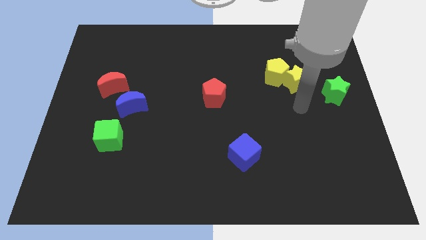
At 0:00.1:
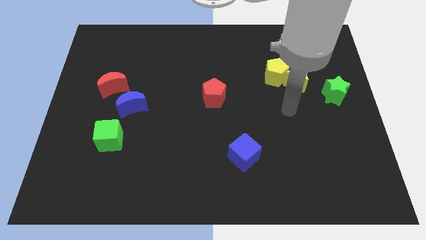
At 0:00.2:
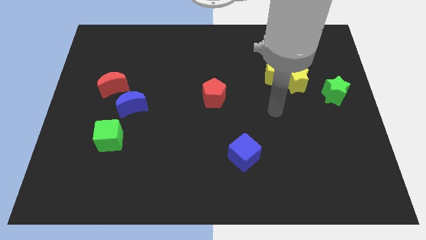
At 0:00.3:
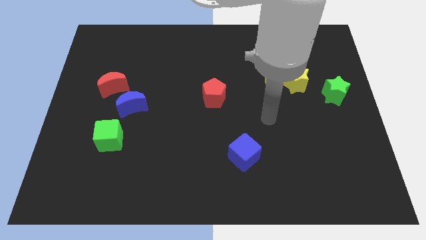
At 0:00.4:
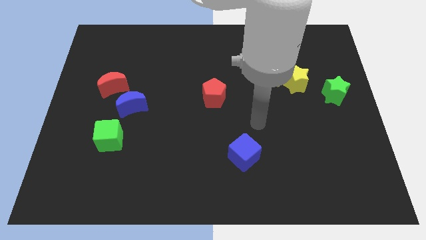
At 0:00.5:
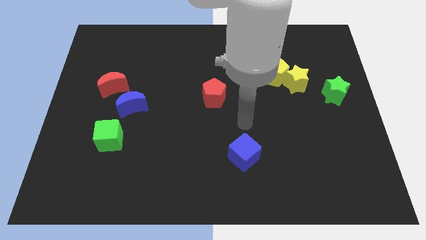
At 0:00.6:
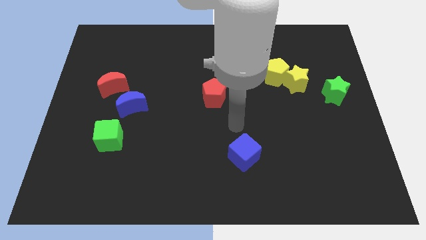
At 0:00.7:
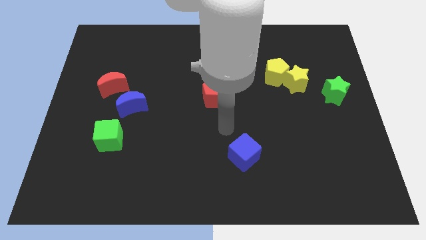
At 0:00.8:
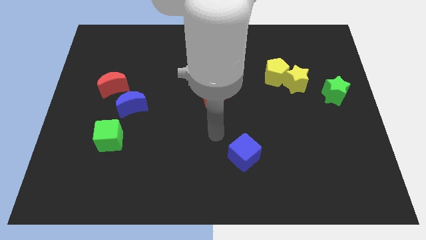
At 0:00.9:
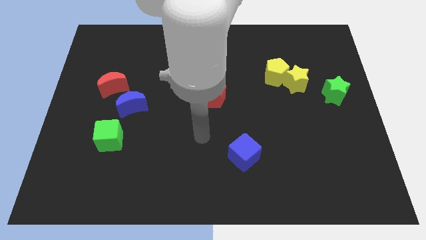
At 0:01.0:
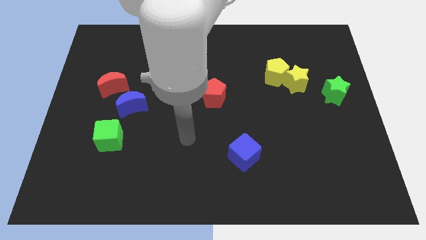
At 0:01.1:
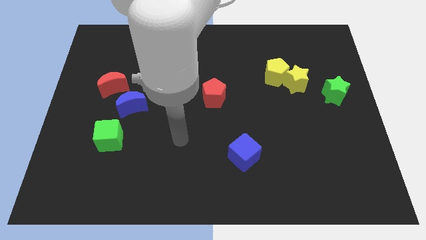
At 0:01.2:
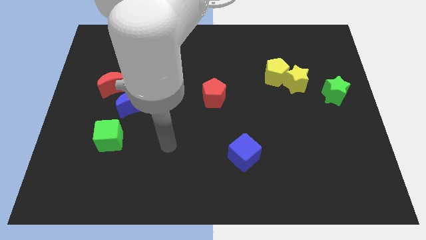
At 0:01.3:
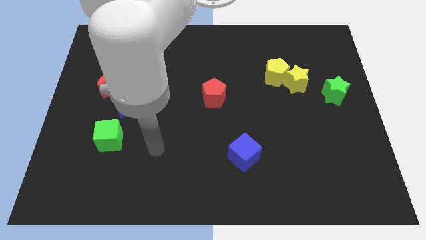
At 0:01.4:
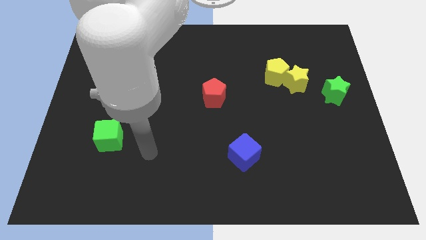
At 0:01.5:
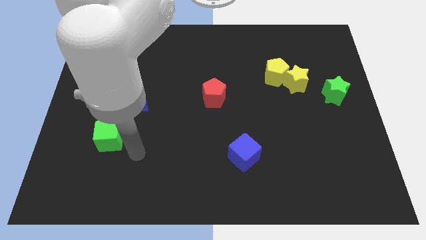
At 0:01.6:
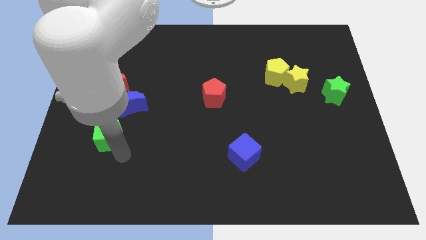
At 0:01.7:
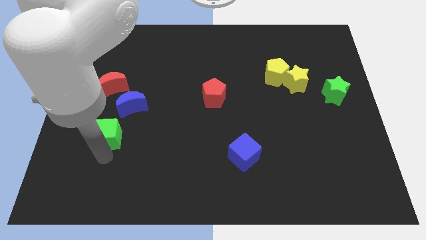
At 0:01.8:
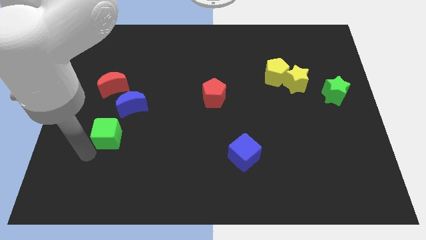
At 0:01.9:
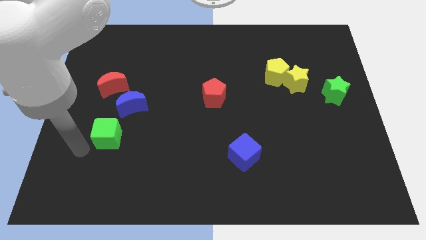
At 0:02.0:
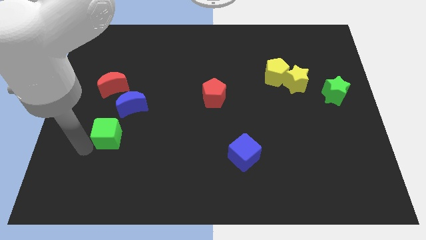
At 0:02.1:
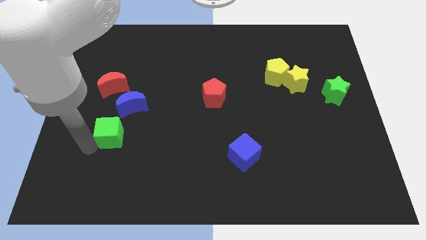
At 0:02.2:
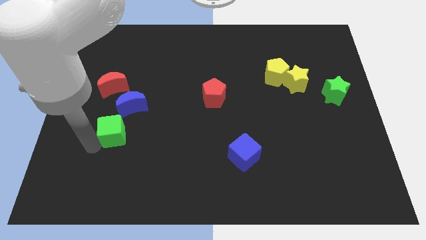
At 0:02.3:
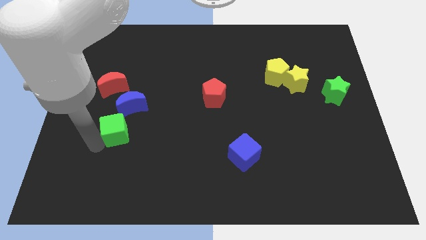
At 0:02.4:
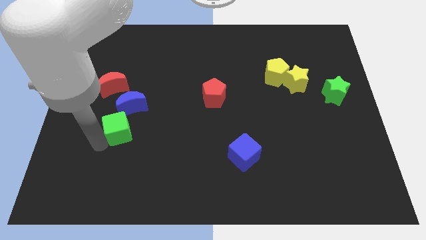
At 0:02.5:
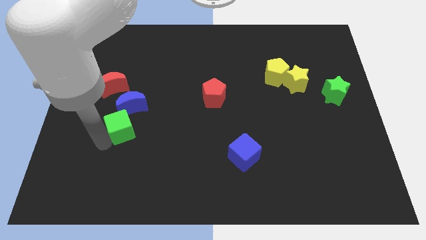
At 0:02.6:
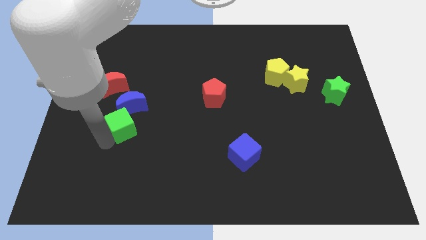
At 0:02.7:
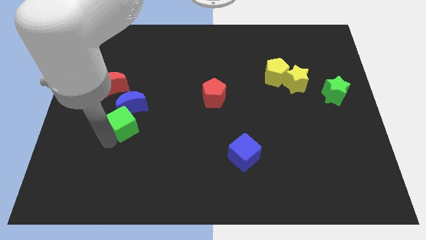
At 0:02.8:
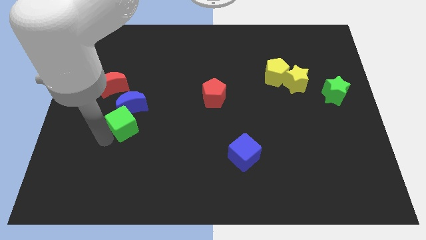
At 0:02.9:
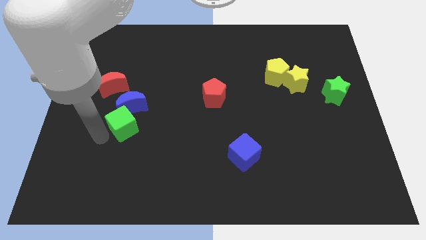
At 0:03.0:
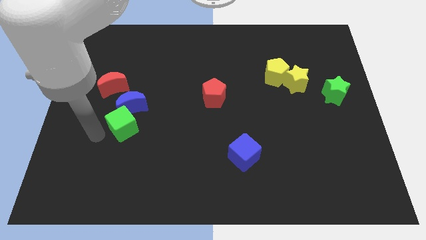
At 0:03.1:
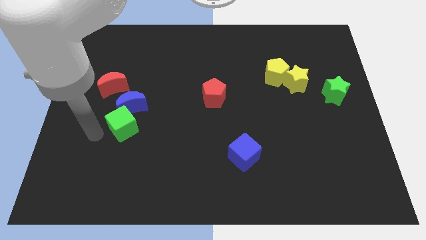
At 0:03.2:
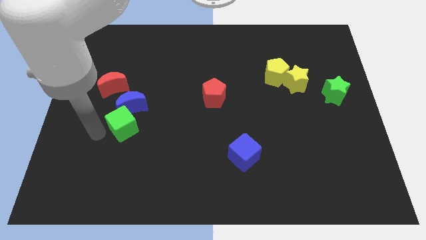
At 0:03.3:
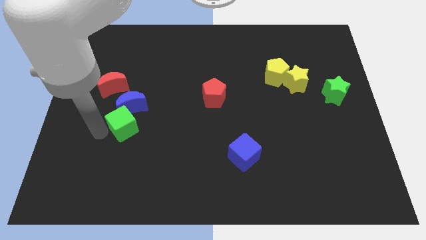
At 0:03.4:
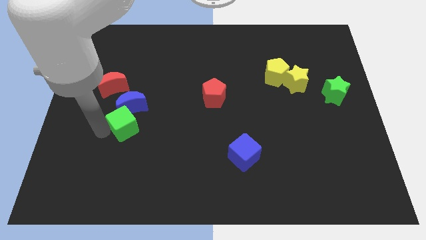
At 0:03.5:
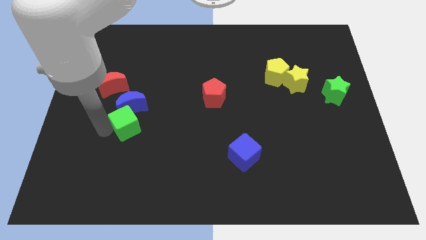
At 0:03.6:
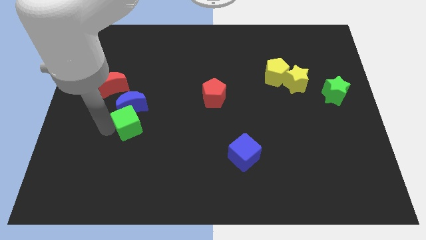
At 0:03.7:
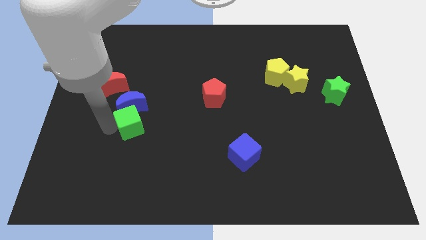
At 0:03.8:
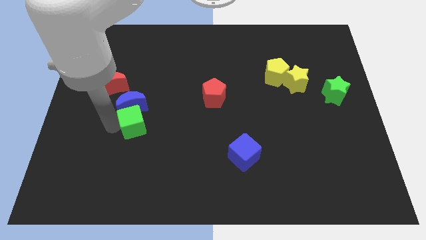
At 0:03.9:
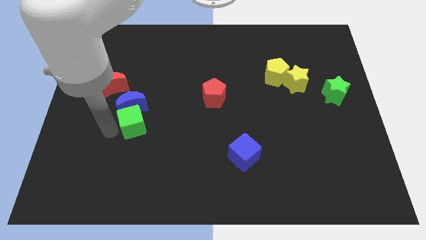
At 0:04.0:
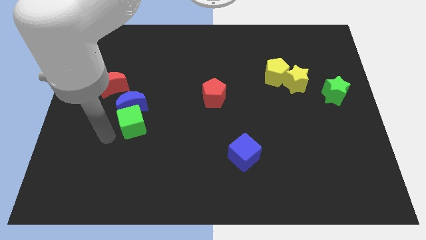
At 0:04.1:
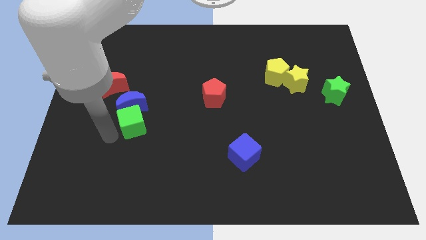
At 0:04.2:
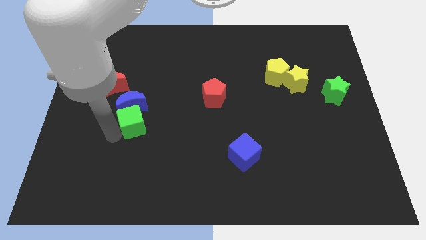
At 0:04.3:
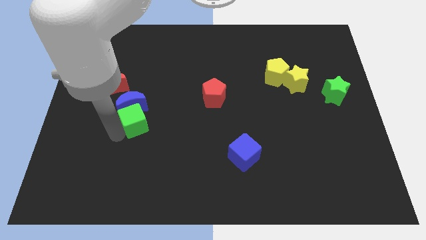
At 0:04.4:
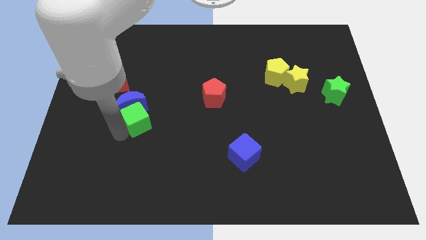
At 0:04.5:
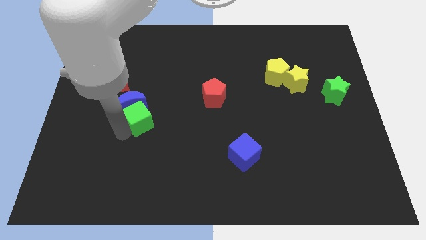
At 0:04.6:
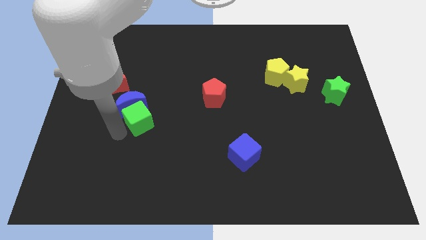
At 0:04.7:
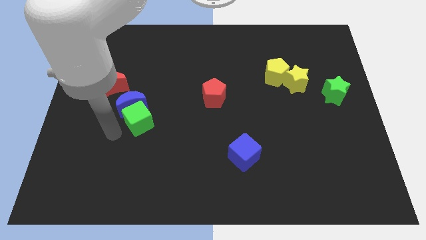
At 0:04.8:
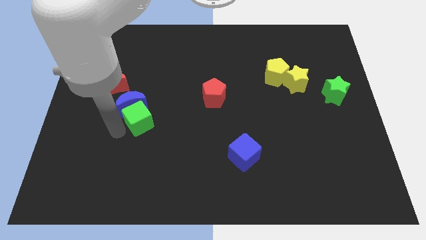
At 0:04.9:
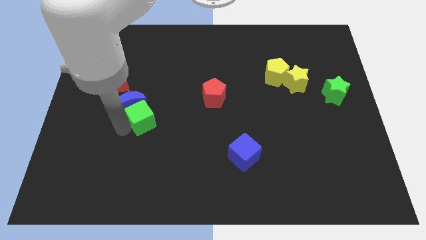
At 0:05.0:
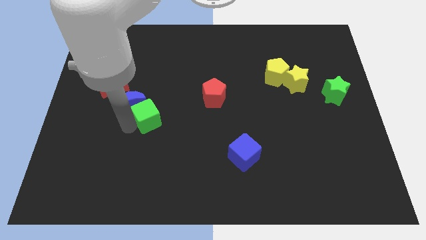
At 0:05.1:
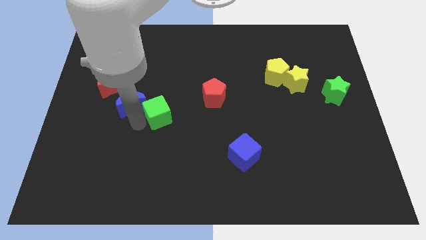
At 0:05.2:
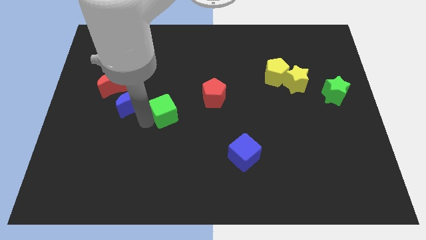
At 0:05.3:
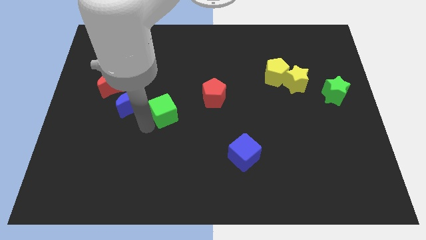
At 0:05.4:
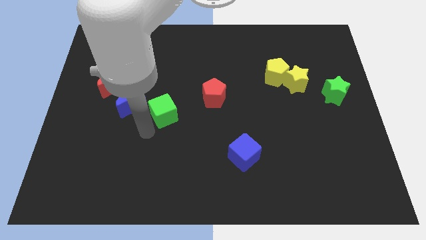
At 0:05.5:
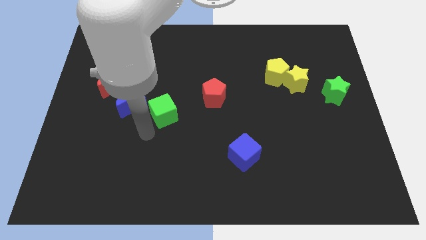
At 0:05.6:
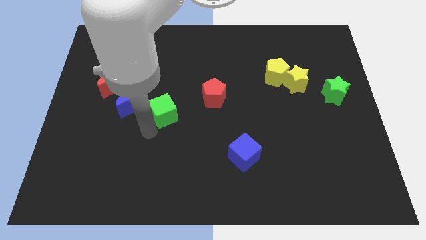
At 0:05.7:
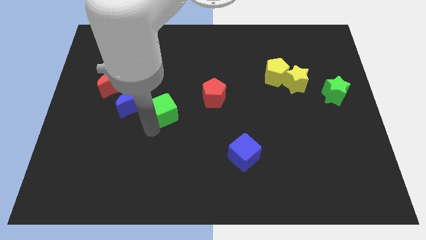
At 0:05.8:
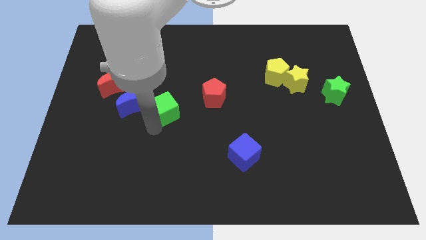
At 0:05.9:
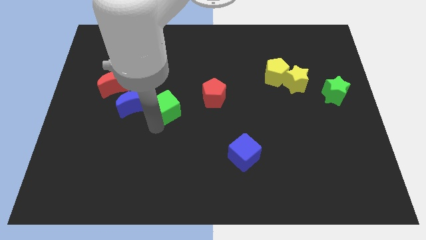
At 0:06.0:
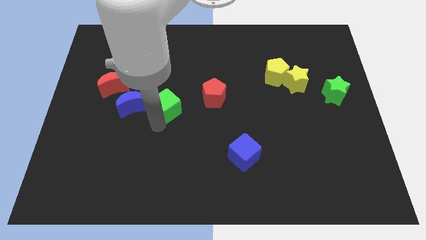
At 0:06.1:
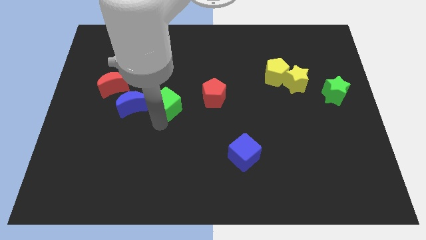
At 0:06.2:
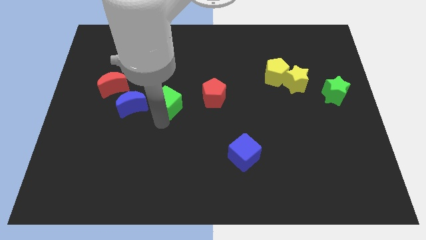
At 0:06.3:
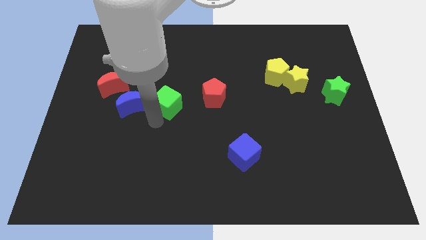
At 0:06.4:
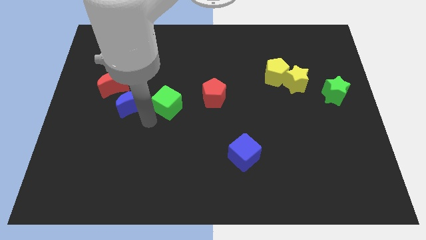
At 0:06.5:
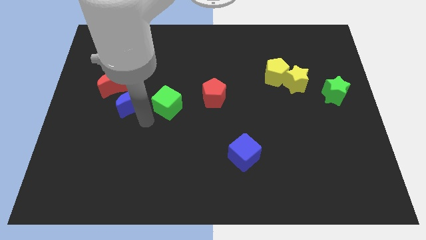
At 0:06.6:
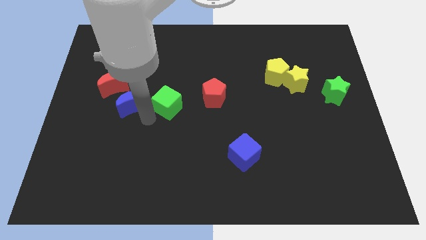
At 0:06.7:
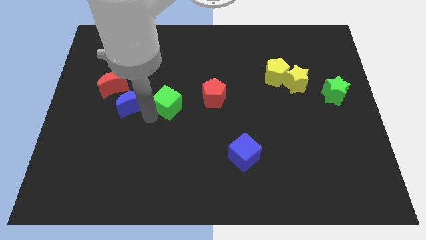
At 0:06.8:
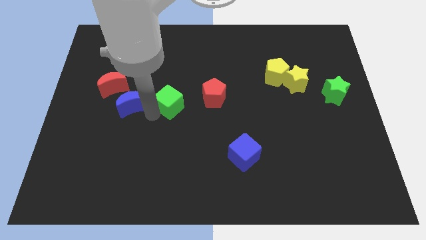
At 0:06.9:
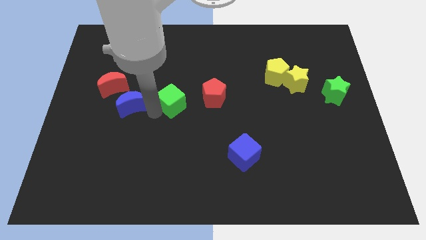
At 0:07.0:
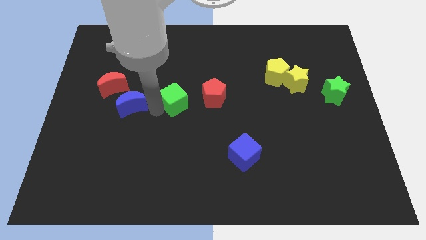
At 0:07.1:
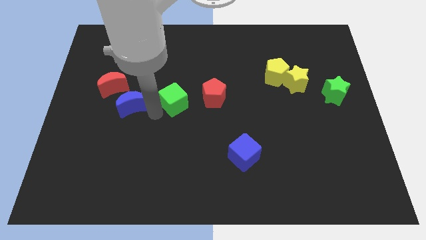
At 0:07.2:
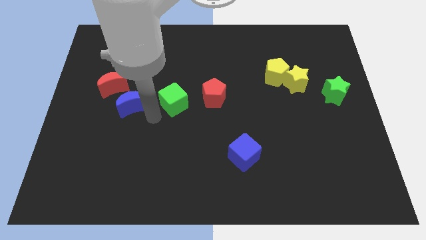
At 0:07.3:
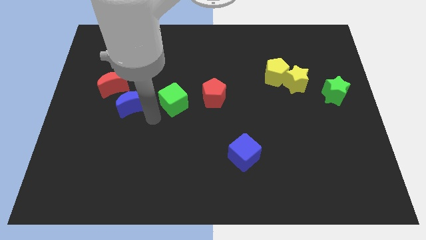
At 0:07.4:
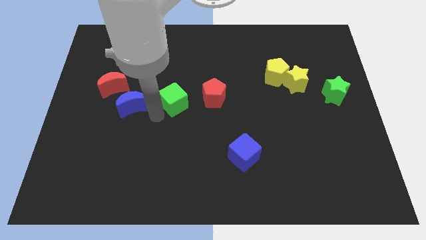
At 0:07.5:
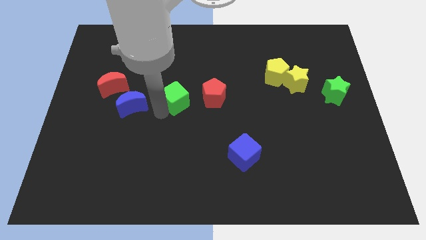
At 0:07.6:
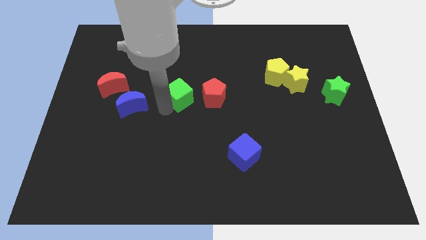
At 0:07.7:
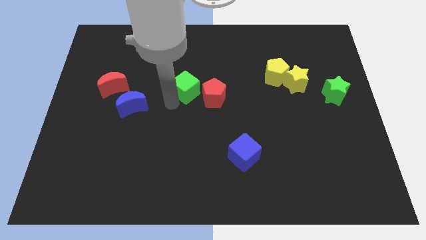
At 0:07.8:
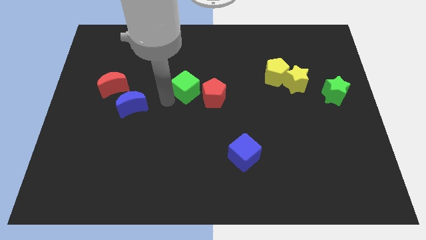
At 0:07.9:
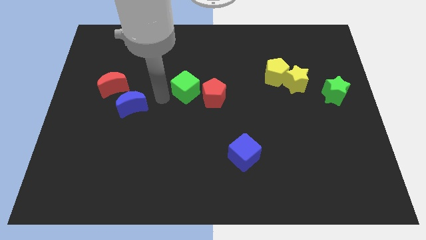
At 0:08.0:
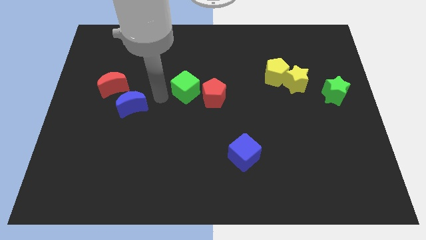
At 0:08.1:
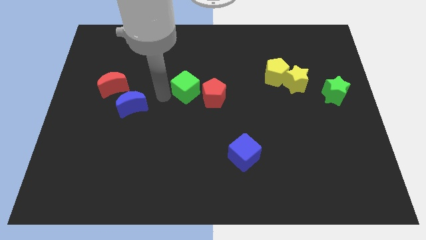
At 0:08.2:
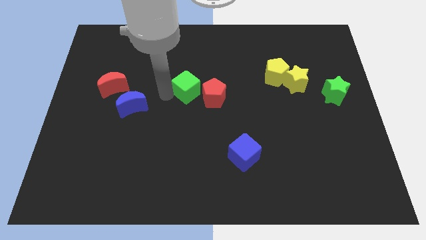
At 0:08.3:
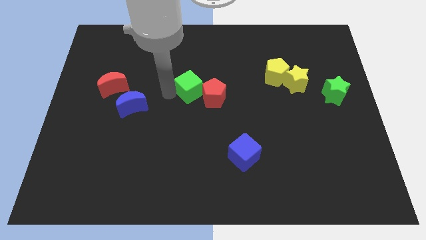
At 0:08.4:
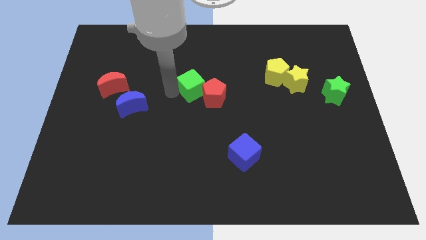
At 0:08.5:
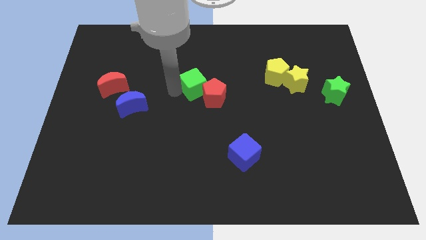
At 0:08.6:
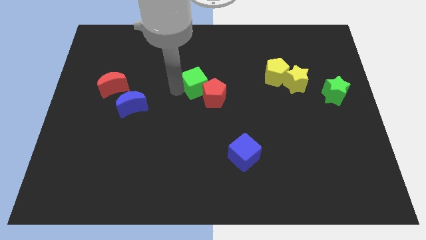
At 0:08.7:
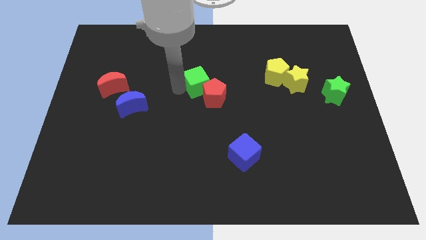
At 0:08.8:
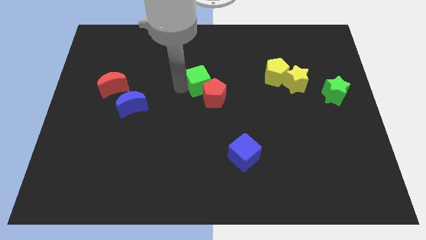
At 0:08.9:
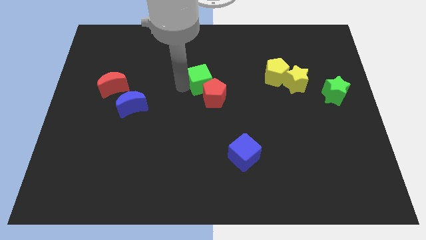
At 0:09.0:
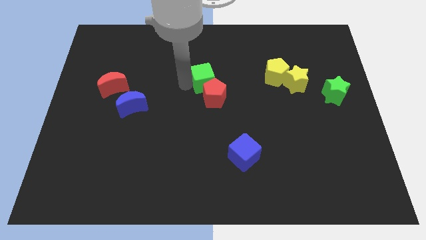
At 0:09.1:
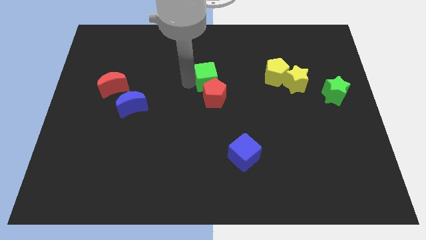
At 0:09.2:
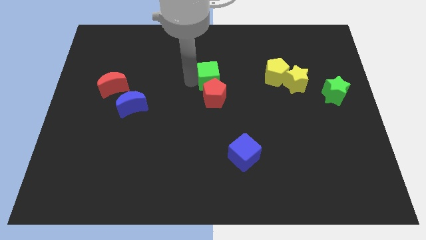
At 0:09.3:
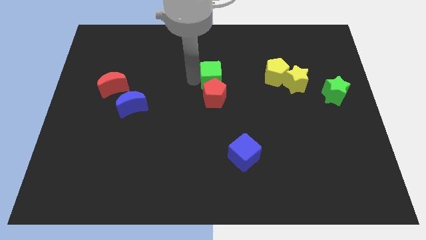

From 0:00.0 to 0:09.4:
move the green cube diagonally up and to the right of the red pentagon
